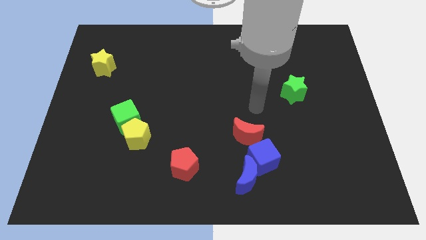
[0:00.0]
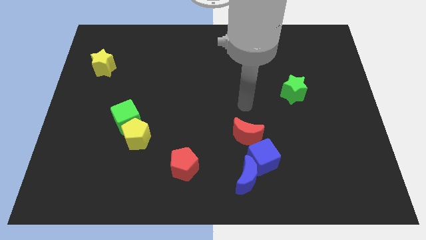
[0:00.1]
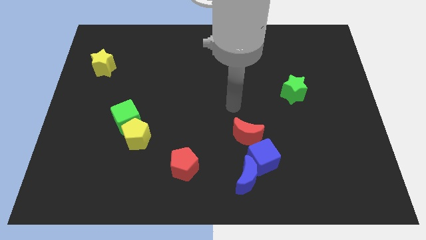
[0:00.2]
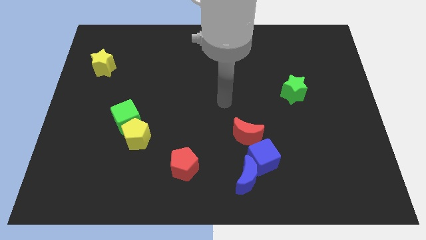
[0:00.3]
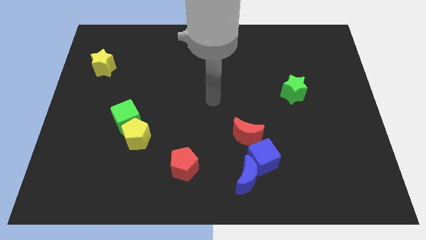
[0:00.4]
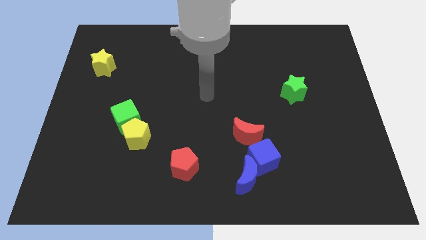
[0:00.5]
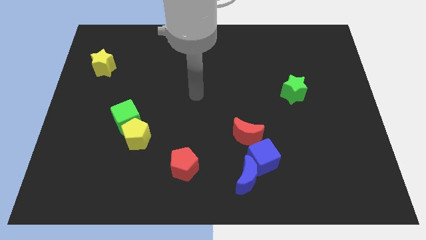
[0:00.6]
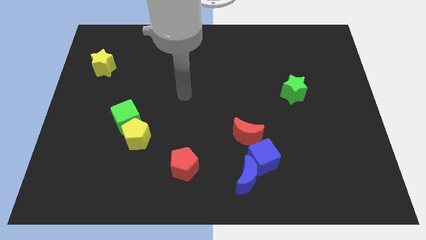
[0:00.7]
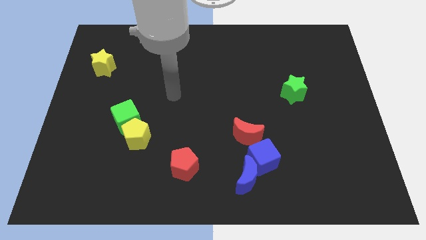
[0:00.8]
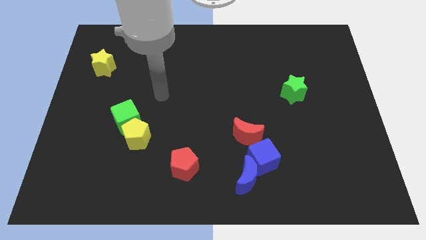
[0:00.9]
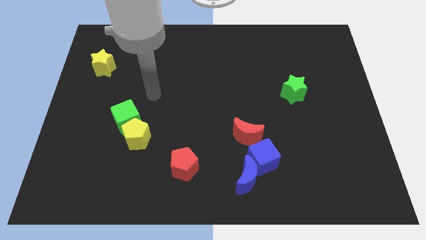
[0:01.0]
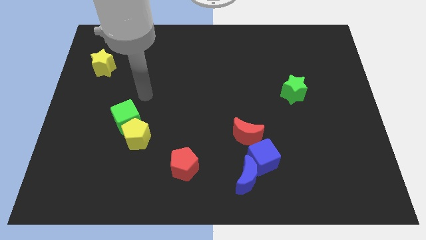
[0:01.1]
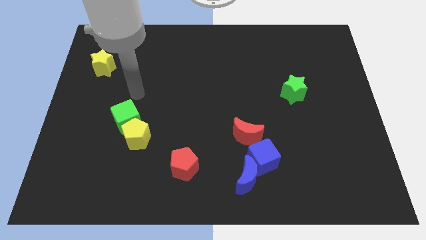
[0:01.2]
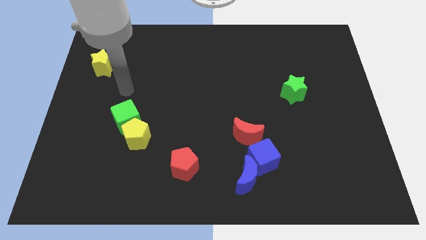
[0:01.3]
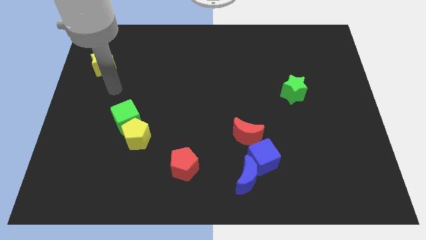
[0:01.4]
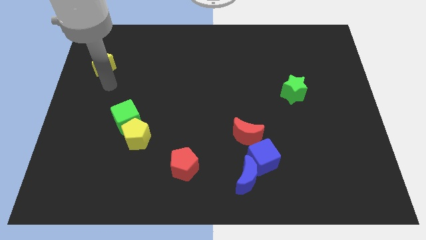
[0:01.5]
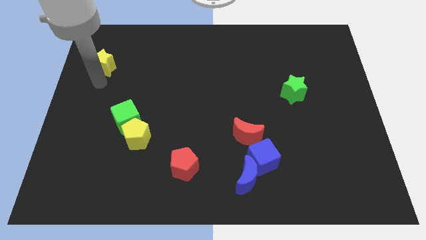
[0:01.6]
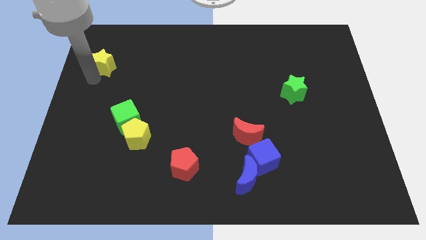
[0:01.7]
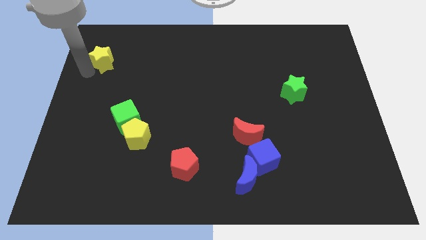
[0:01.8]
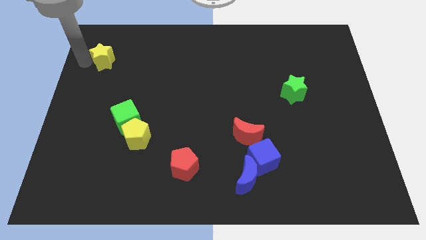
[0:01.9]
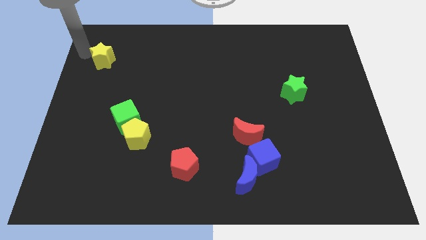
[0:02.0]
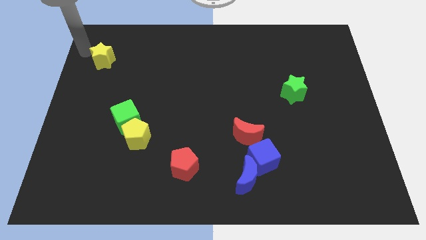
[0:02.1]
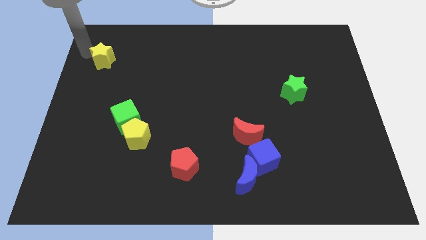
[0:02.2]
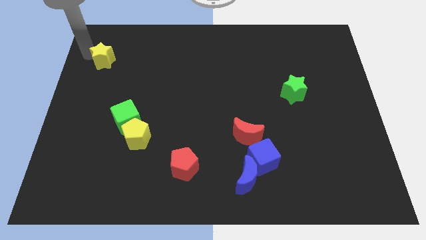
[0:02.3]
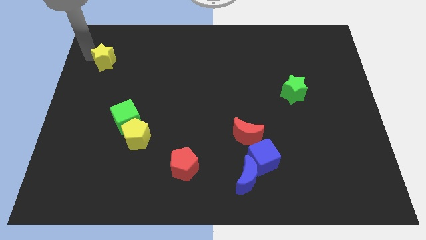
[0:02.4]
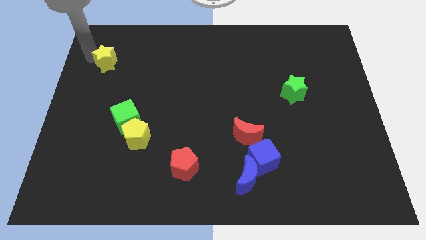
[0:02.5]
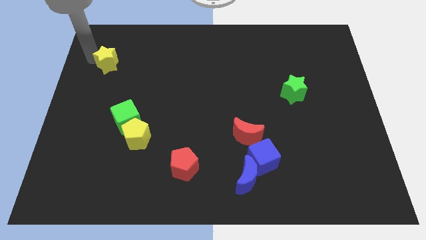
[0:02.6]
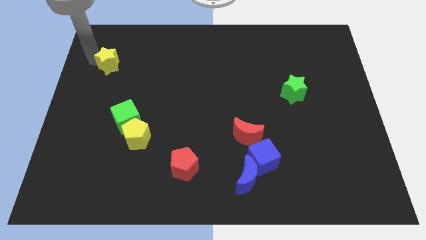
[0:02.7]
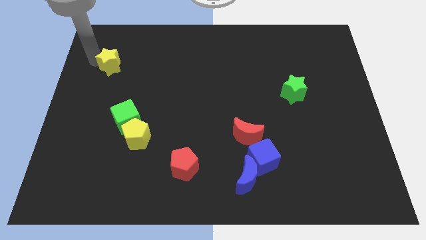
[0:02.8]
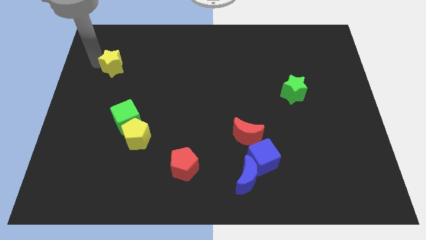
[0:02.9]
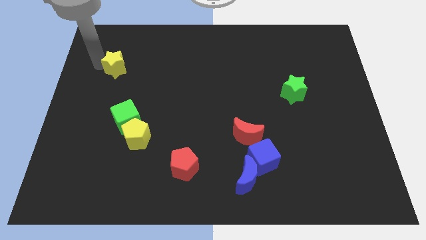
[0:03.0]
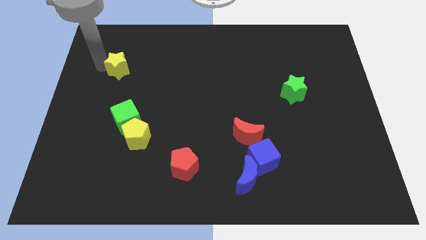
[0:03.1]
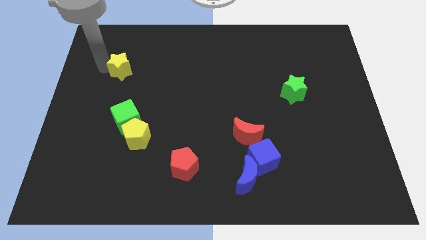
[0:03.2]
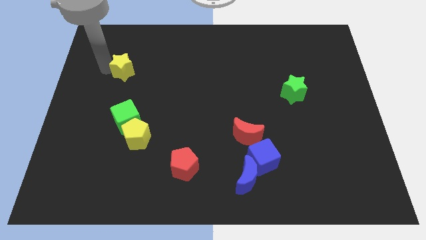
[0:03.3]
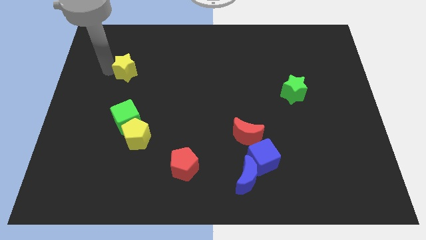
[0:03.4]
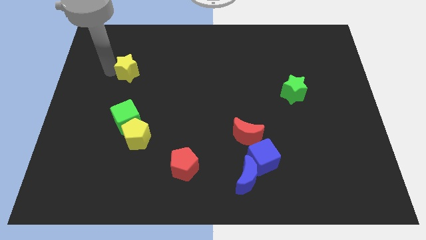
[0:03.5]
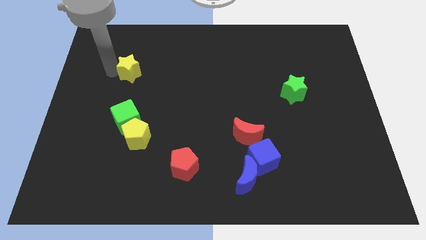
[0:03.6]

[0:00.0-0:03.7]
slide the yellow star right a bit

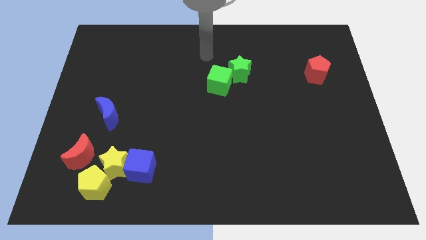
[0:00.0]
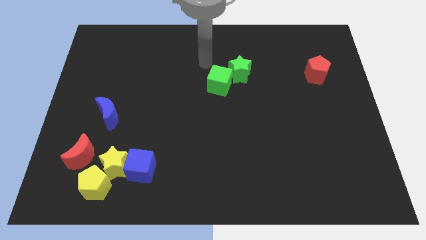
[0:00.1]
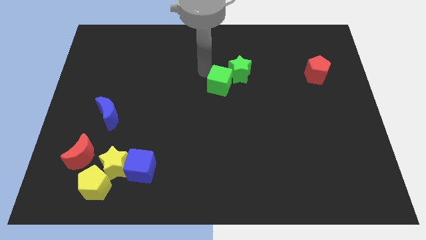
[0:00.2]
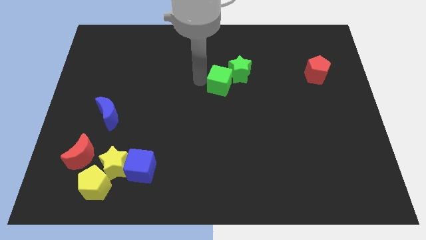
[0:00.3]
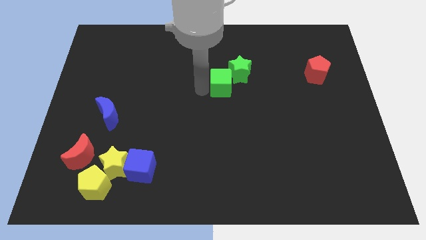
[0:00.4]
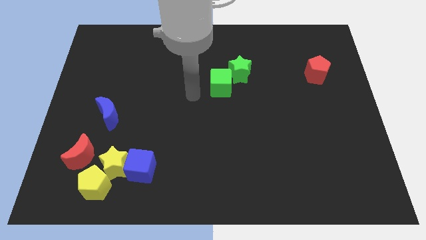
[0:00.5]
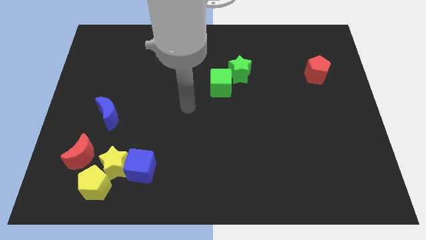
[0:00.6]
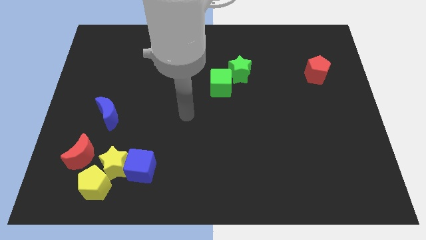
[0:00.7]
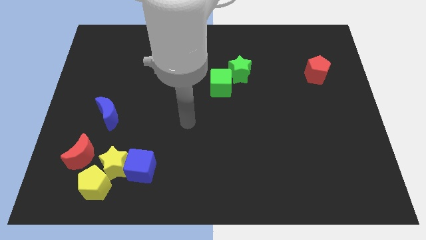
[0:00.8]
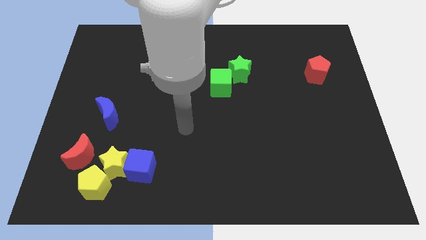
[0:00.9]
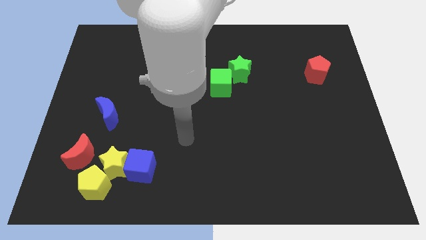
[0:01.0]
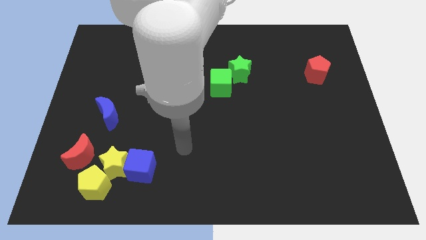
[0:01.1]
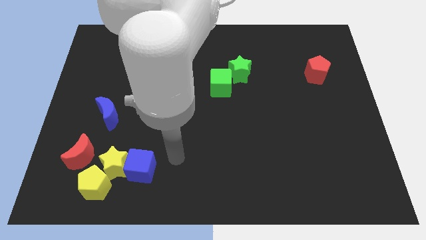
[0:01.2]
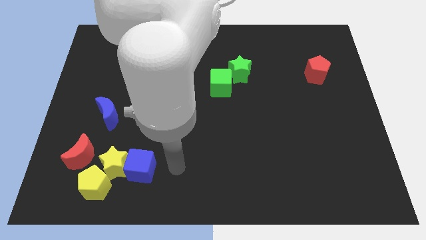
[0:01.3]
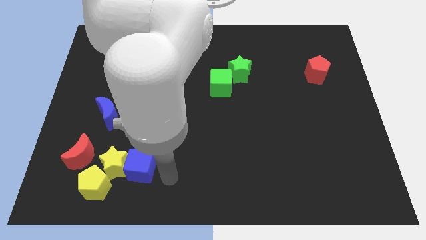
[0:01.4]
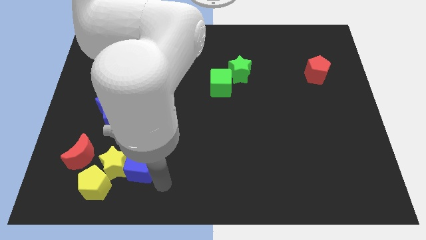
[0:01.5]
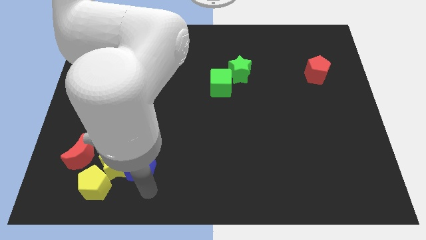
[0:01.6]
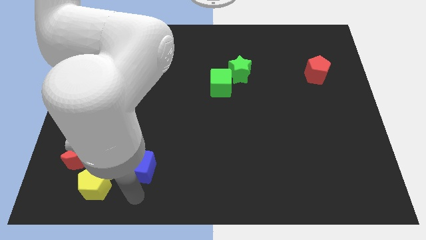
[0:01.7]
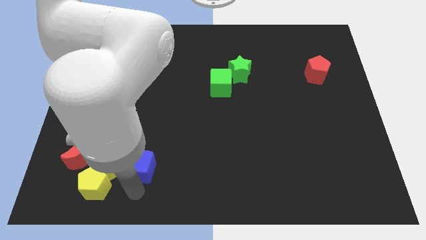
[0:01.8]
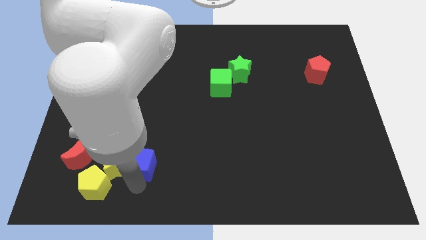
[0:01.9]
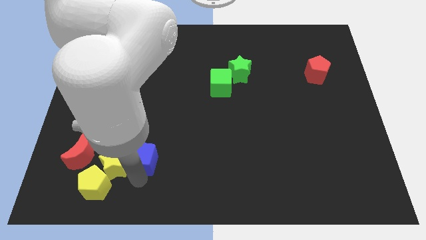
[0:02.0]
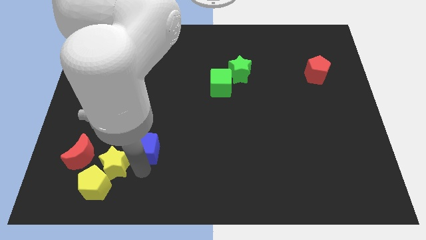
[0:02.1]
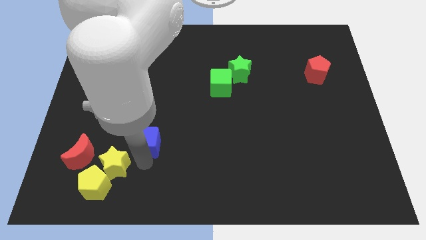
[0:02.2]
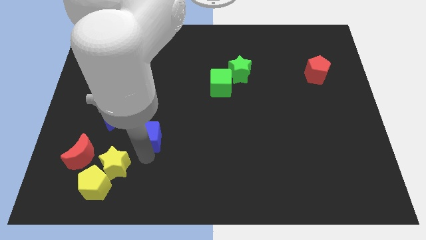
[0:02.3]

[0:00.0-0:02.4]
slide the blue cube slightly upwards

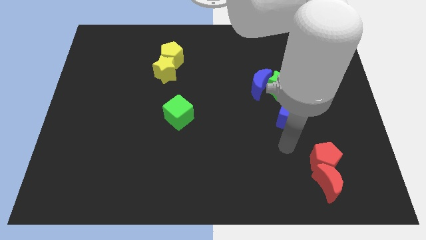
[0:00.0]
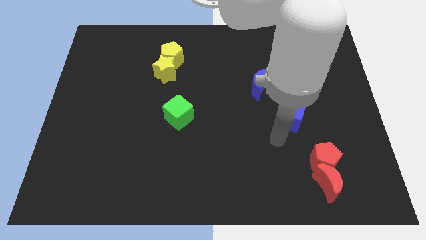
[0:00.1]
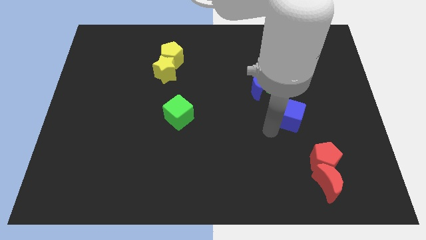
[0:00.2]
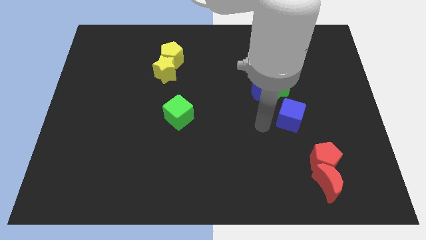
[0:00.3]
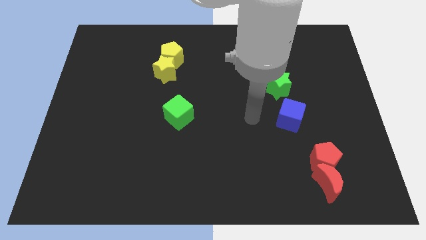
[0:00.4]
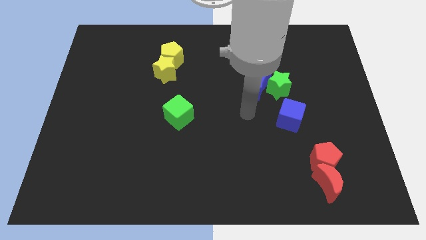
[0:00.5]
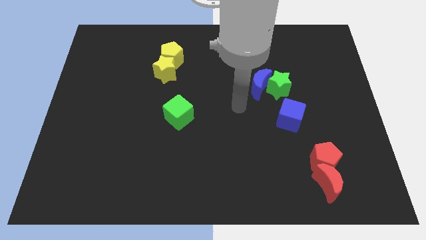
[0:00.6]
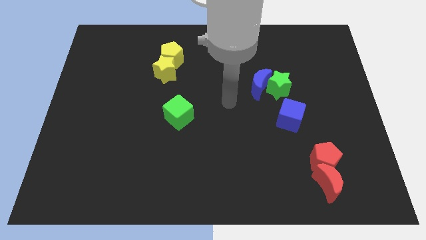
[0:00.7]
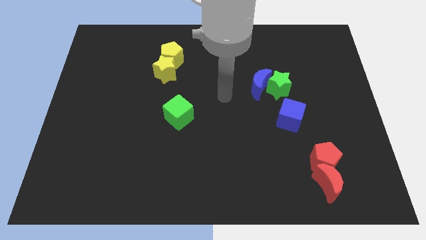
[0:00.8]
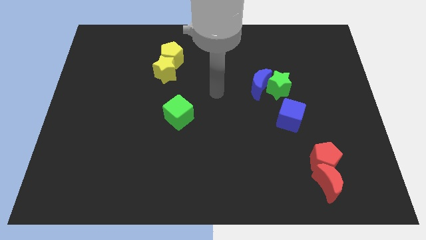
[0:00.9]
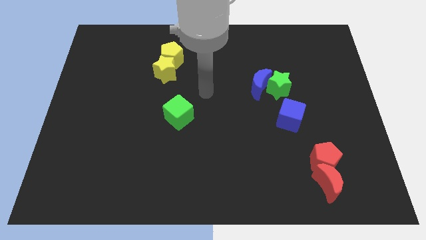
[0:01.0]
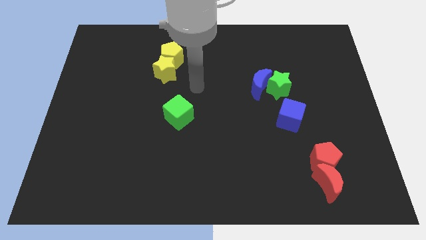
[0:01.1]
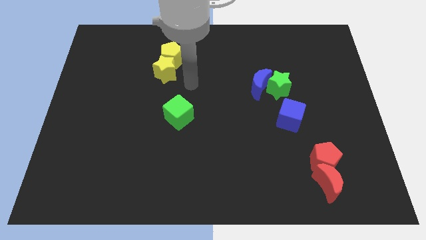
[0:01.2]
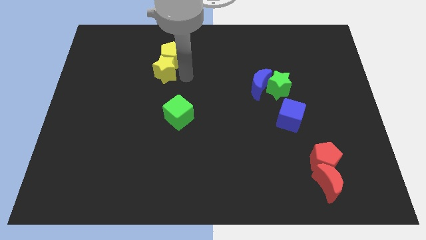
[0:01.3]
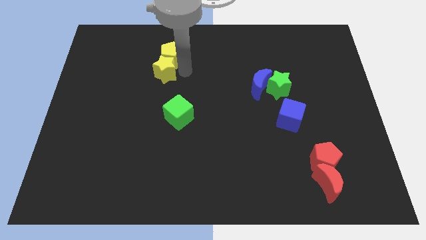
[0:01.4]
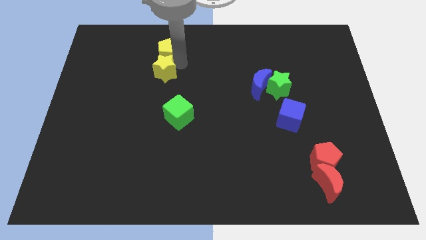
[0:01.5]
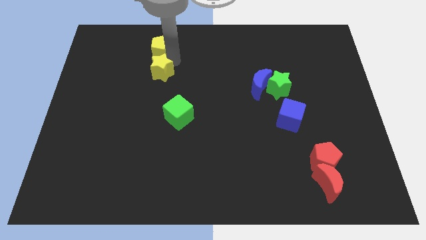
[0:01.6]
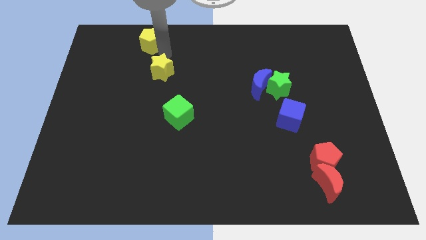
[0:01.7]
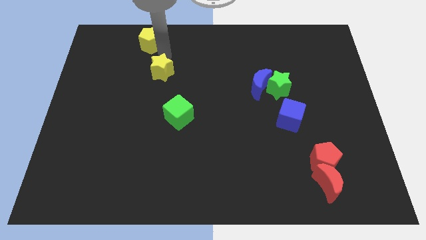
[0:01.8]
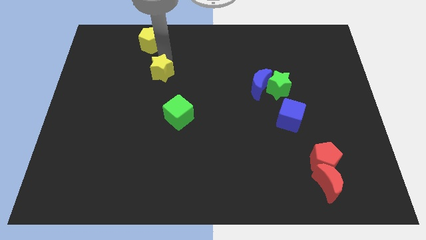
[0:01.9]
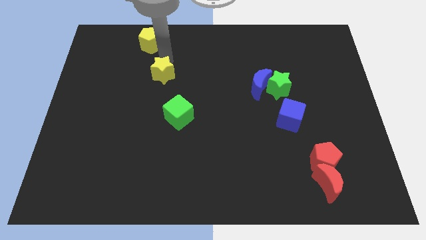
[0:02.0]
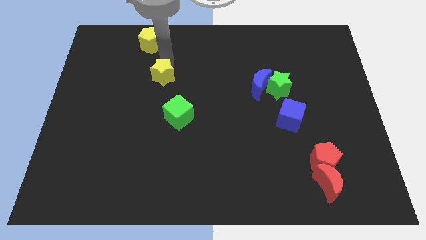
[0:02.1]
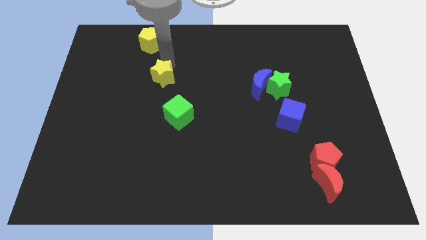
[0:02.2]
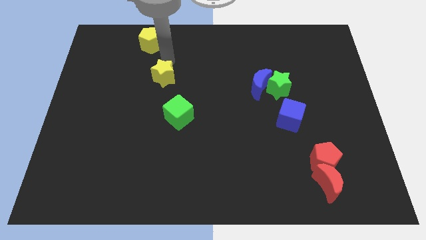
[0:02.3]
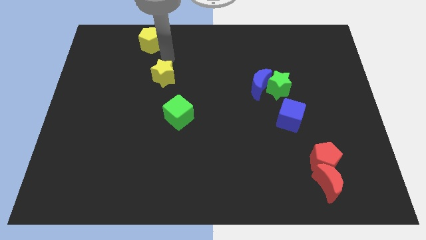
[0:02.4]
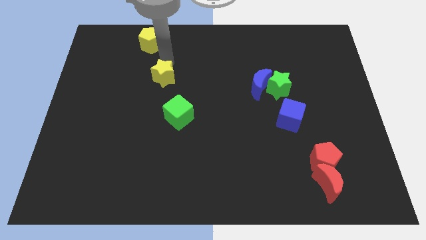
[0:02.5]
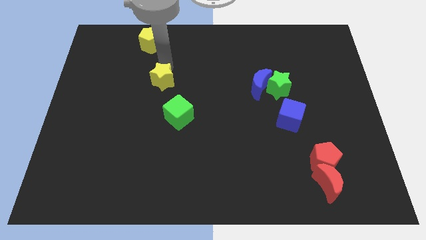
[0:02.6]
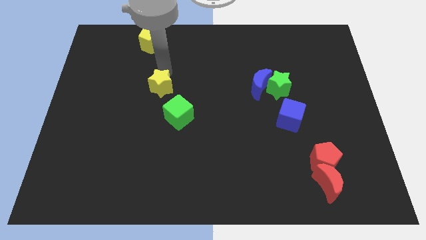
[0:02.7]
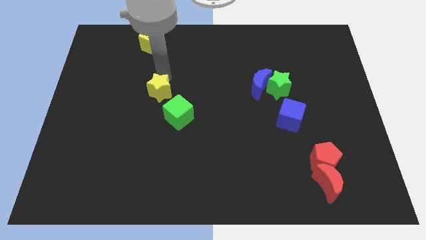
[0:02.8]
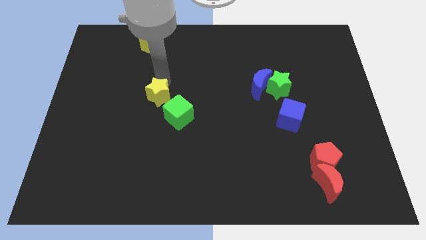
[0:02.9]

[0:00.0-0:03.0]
push the yellow star downwards a bit
